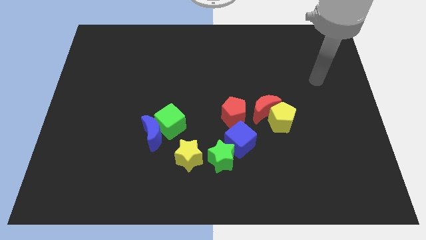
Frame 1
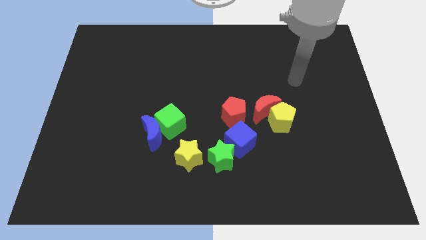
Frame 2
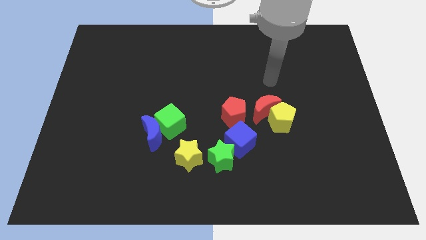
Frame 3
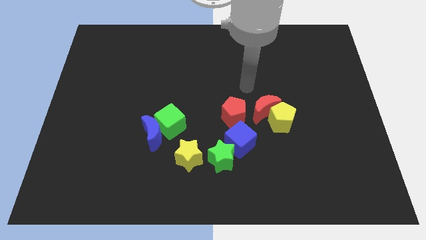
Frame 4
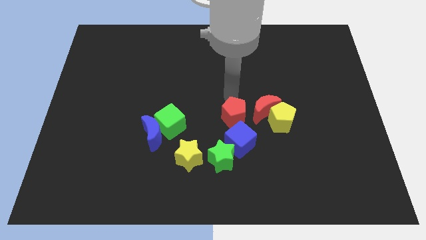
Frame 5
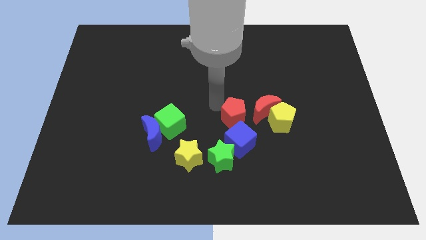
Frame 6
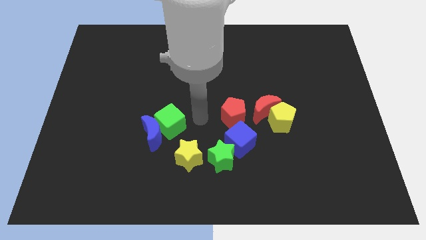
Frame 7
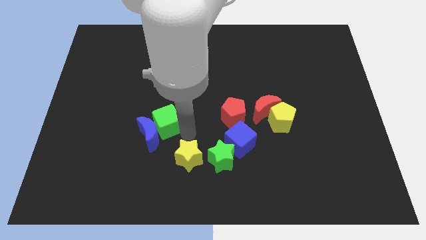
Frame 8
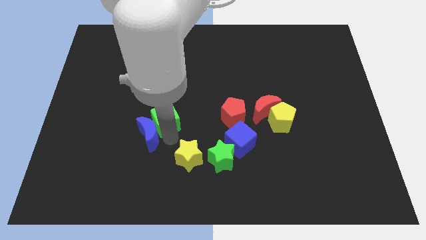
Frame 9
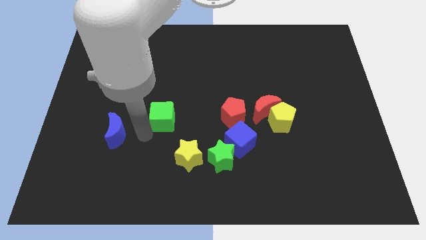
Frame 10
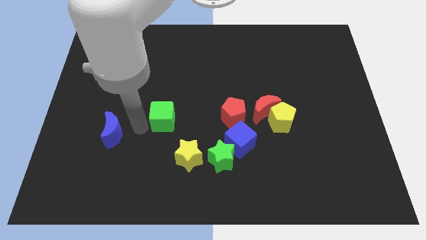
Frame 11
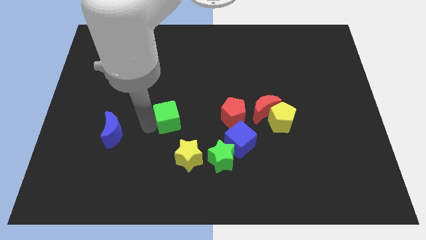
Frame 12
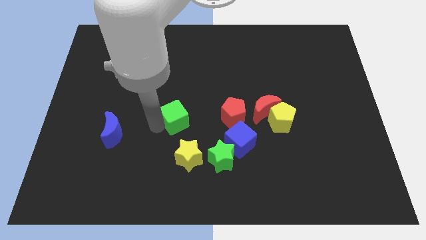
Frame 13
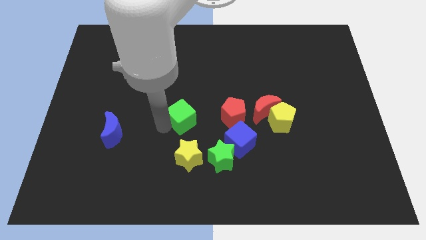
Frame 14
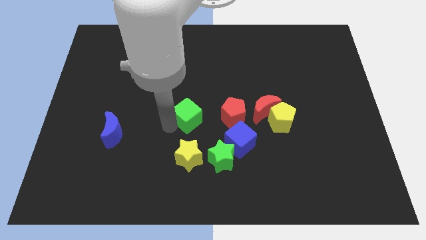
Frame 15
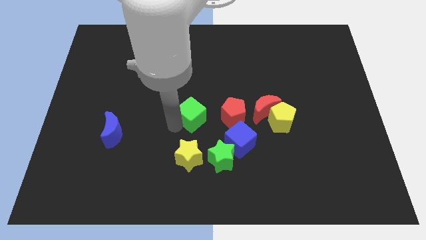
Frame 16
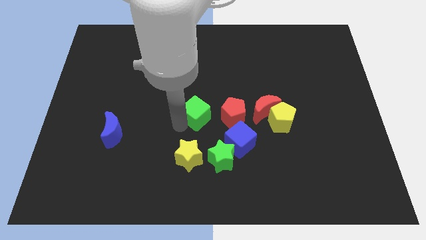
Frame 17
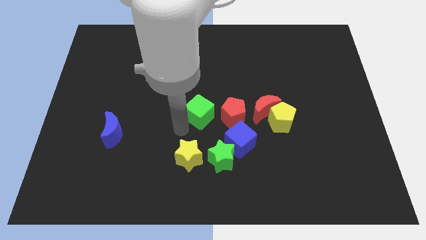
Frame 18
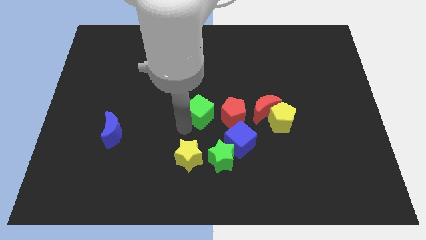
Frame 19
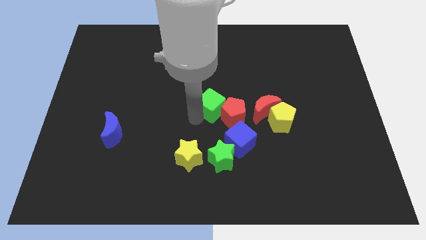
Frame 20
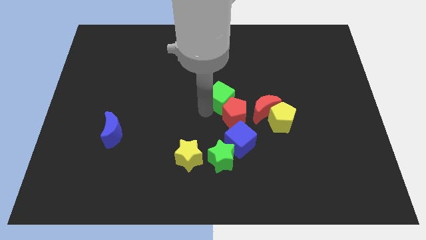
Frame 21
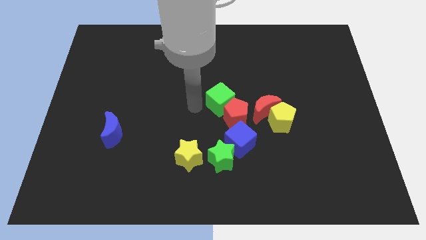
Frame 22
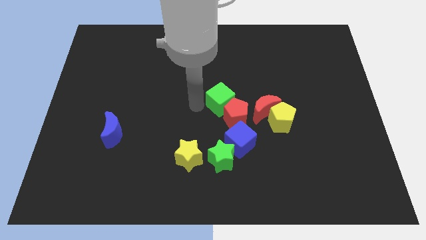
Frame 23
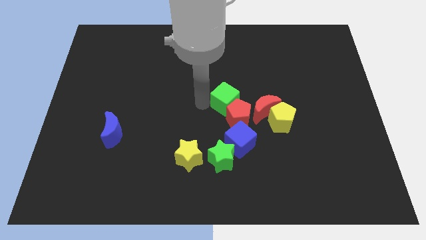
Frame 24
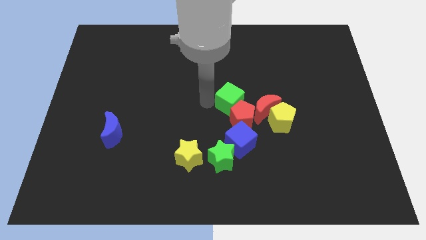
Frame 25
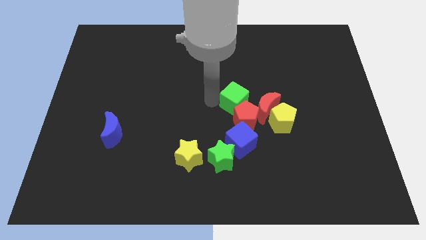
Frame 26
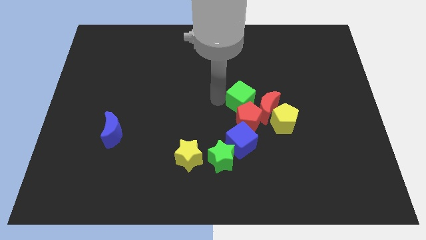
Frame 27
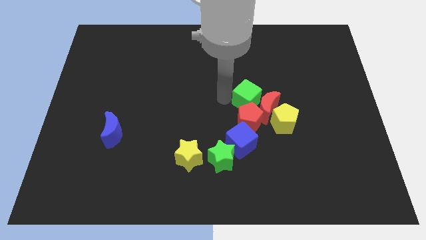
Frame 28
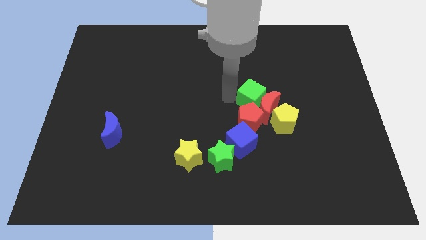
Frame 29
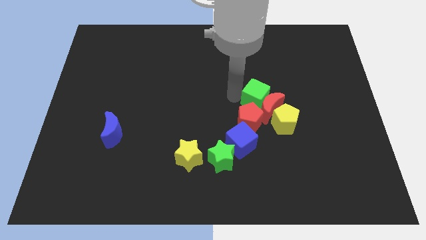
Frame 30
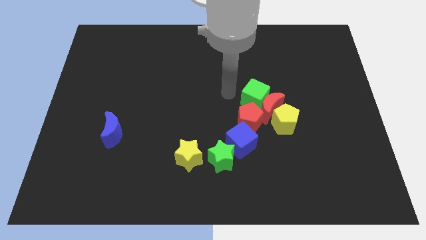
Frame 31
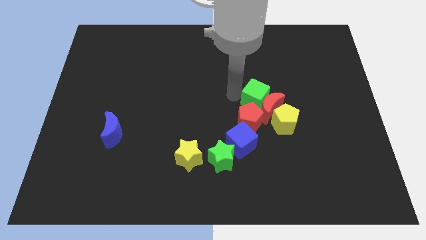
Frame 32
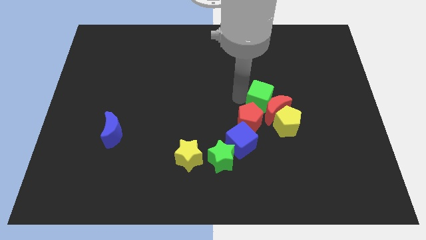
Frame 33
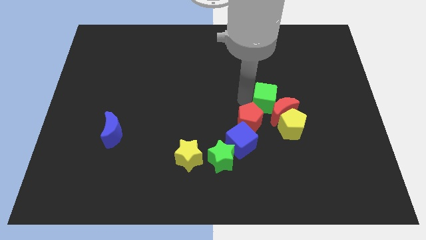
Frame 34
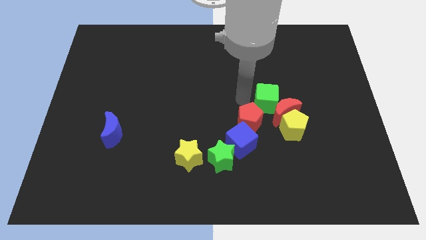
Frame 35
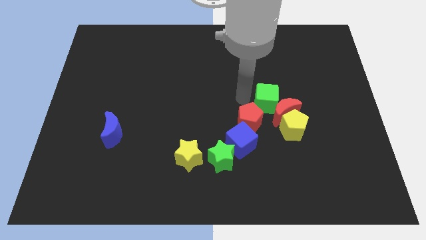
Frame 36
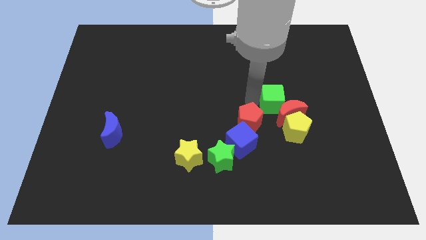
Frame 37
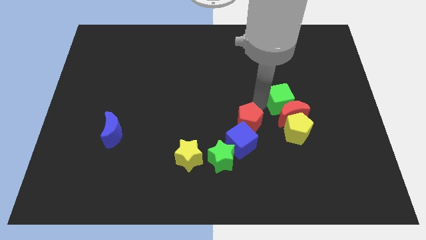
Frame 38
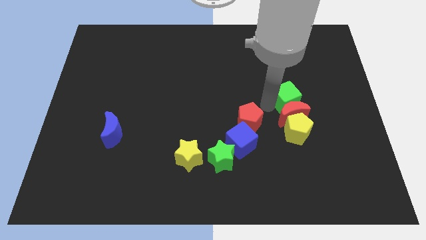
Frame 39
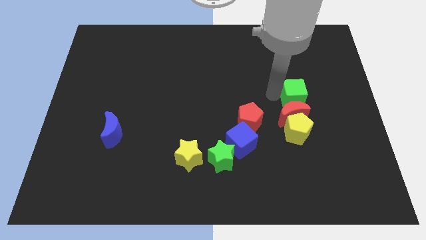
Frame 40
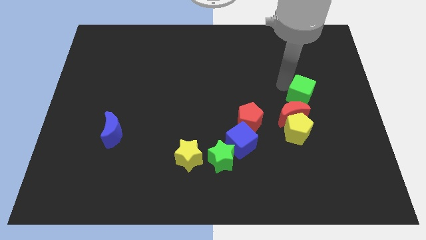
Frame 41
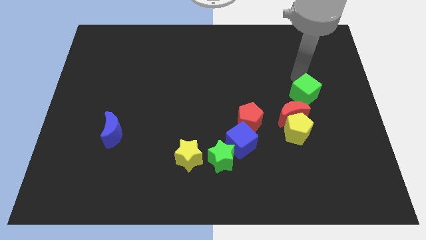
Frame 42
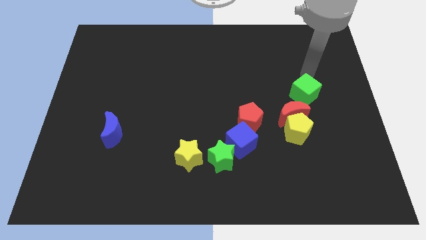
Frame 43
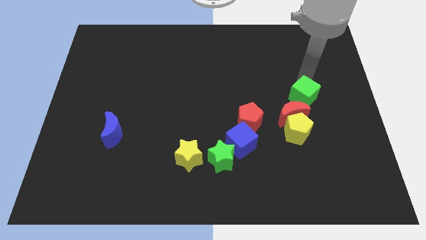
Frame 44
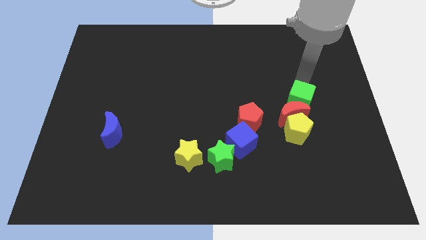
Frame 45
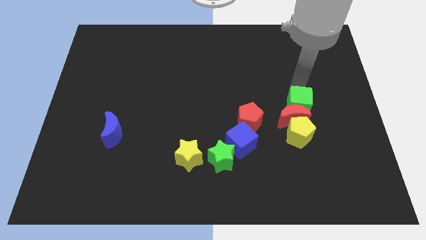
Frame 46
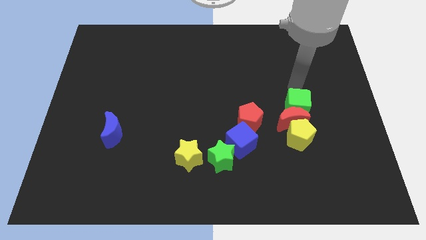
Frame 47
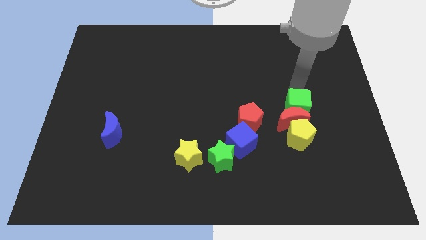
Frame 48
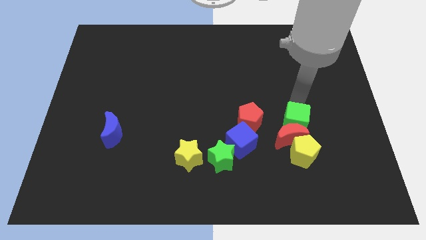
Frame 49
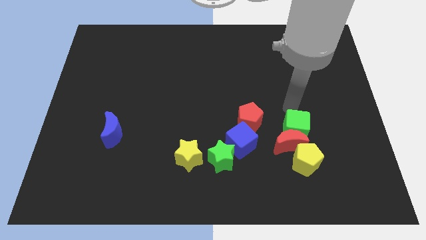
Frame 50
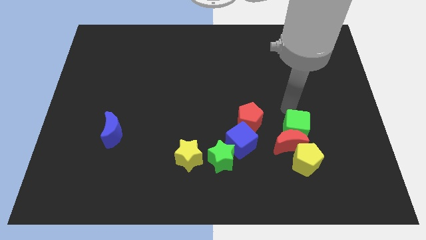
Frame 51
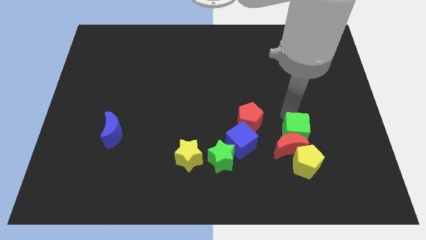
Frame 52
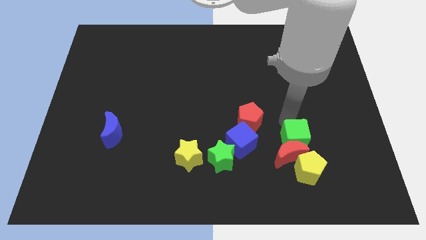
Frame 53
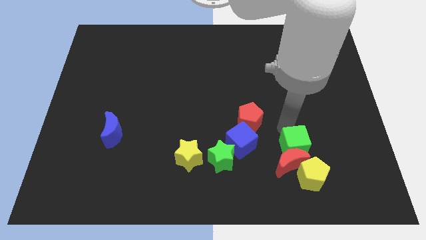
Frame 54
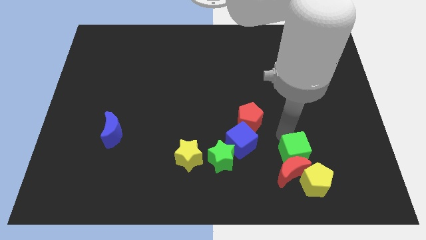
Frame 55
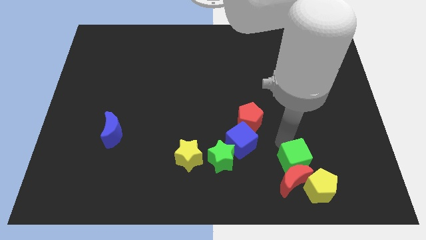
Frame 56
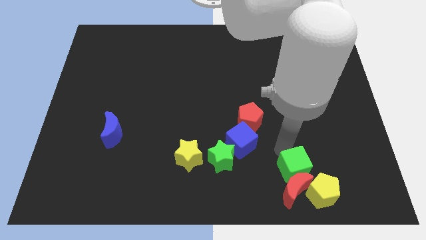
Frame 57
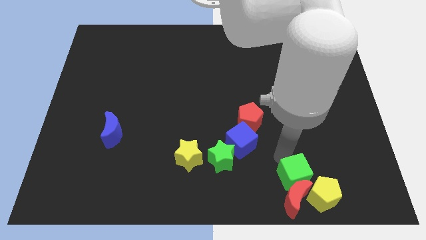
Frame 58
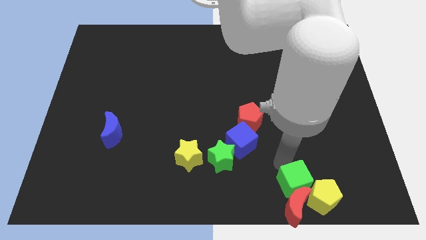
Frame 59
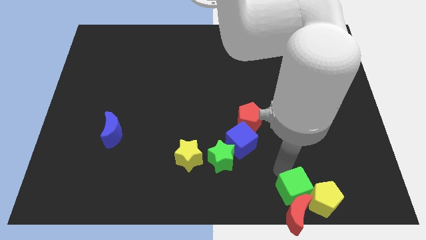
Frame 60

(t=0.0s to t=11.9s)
slide the green cube close to the yellow pentagon

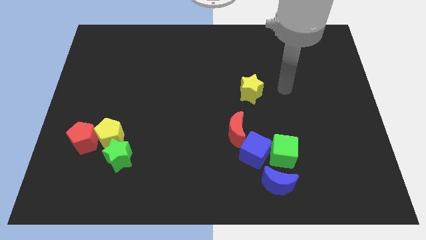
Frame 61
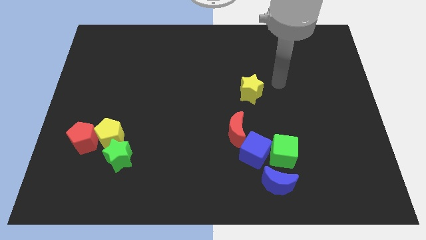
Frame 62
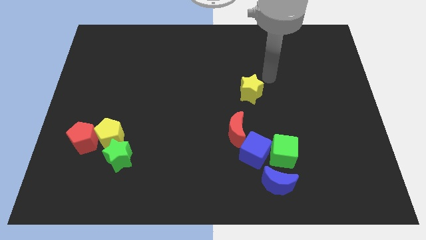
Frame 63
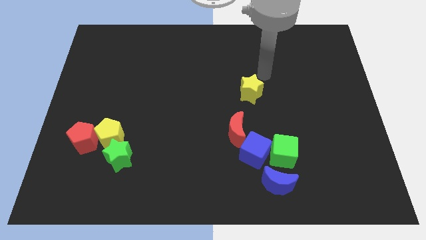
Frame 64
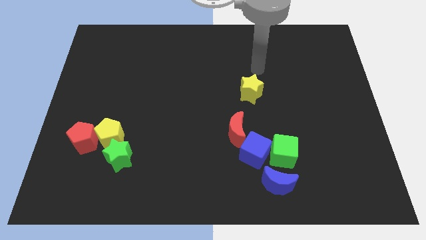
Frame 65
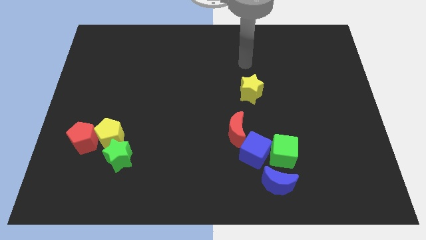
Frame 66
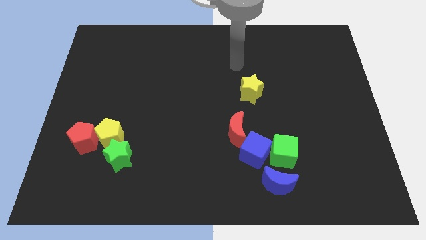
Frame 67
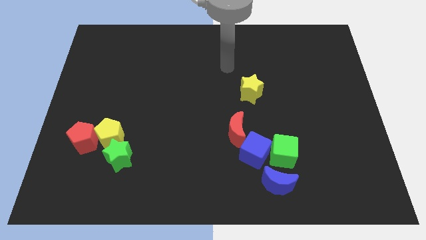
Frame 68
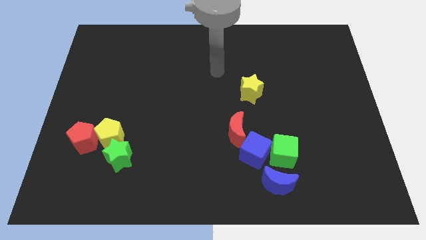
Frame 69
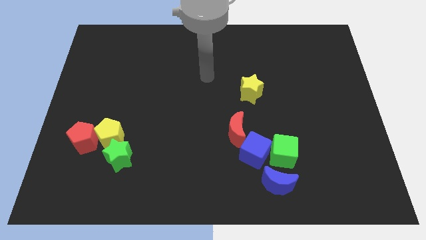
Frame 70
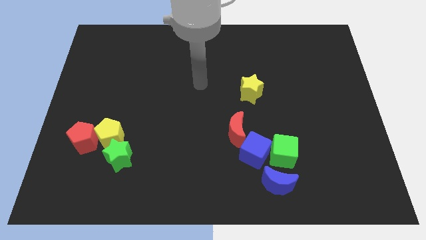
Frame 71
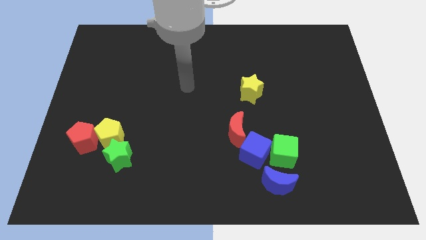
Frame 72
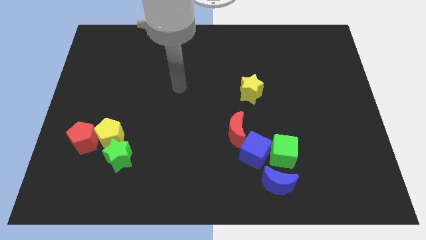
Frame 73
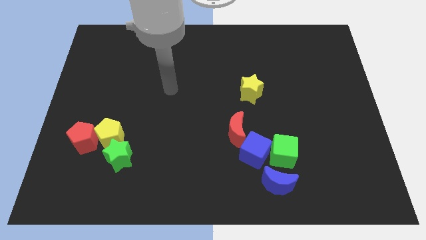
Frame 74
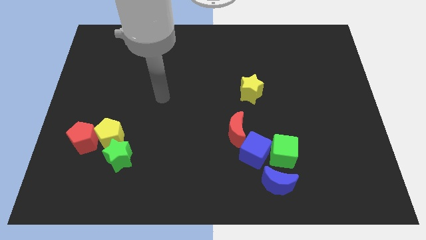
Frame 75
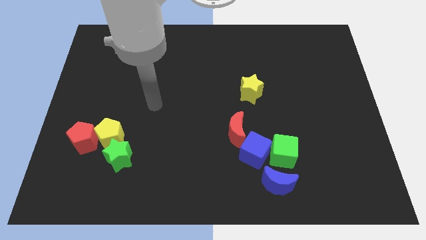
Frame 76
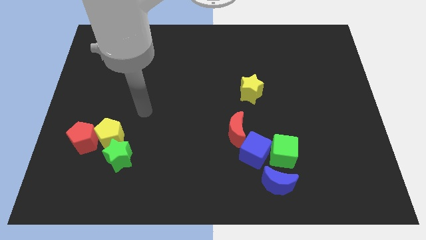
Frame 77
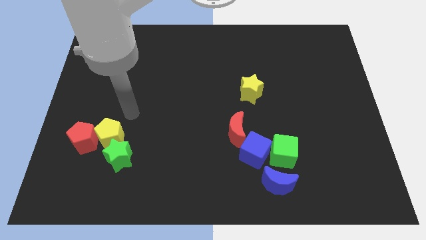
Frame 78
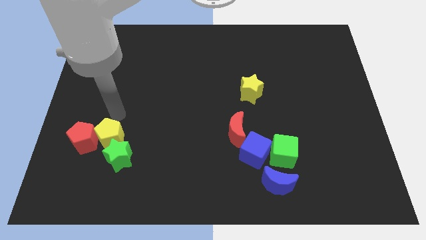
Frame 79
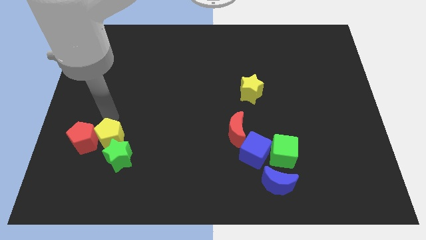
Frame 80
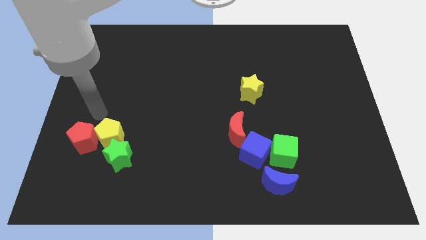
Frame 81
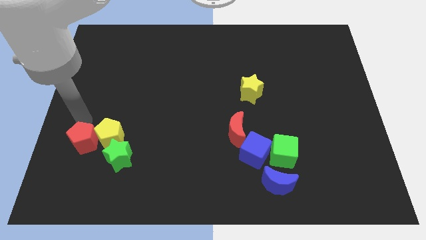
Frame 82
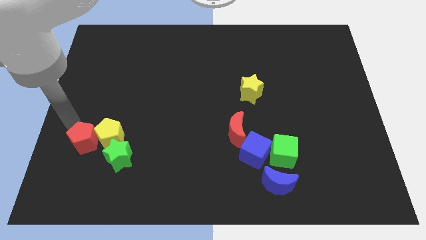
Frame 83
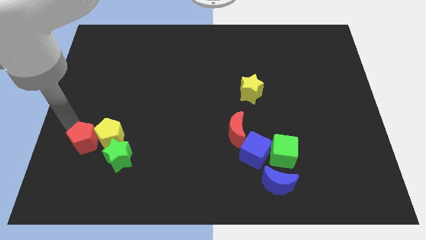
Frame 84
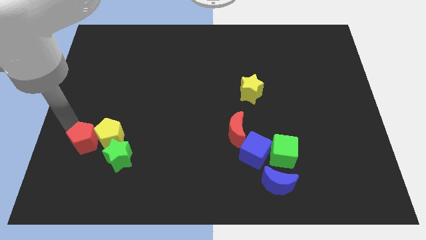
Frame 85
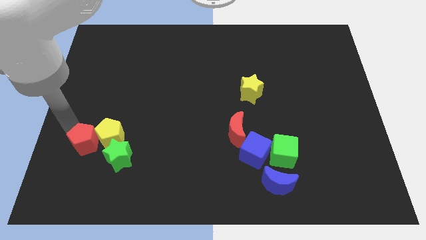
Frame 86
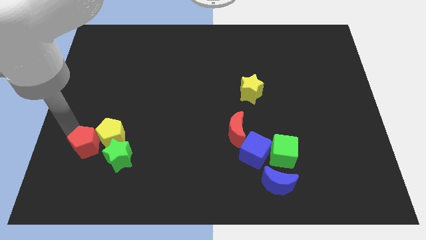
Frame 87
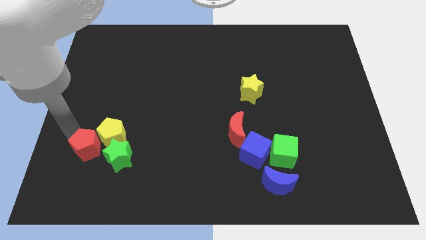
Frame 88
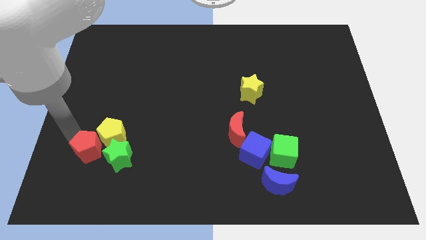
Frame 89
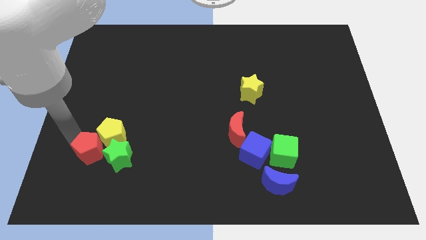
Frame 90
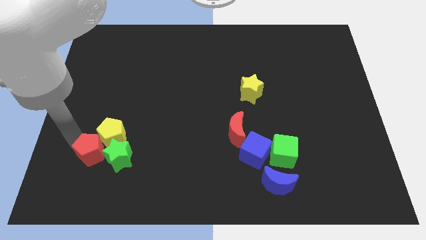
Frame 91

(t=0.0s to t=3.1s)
push the red pentagon close to the green star
